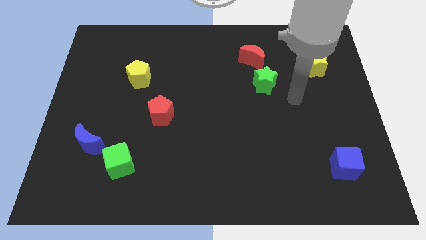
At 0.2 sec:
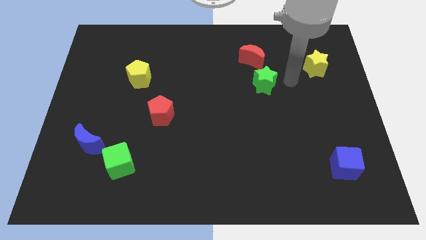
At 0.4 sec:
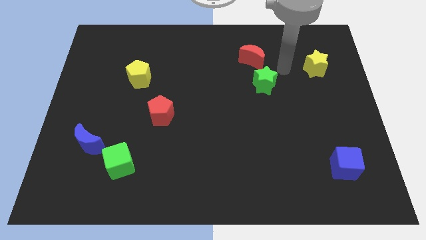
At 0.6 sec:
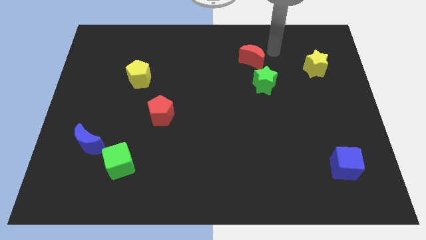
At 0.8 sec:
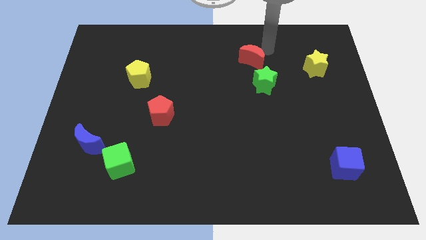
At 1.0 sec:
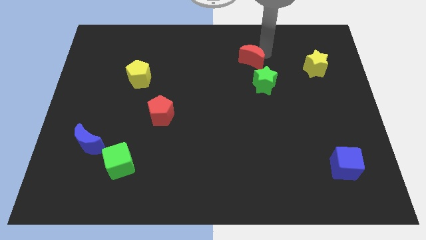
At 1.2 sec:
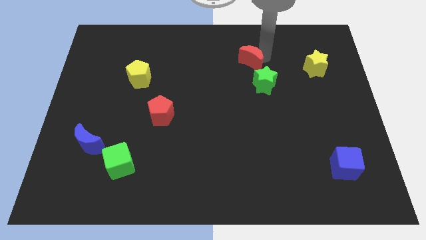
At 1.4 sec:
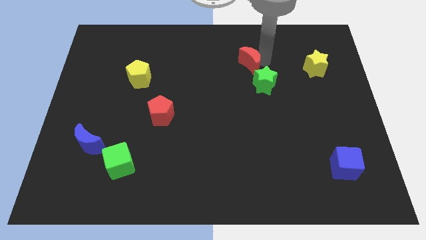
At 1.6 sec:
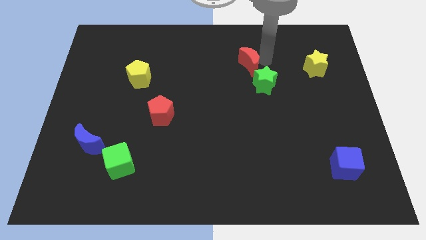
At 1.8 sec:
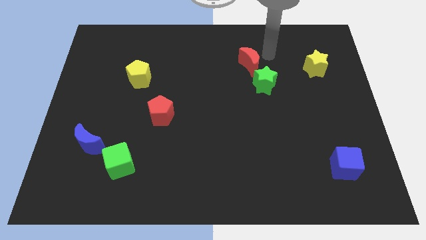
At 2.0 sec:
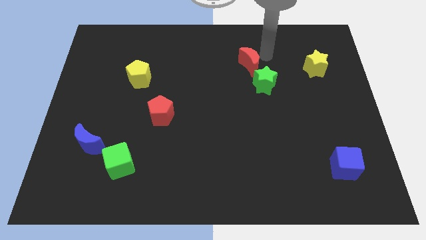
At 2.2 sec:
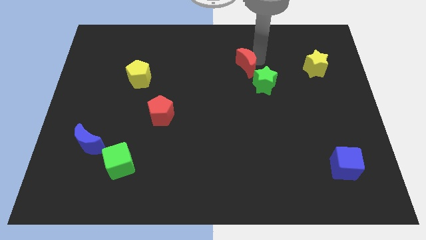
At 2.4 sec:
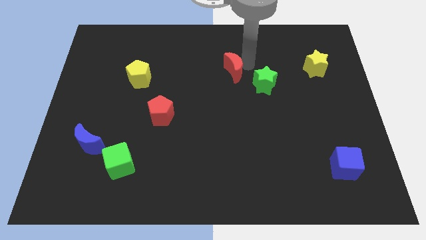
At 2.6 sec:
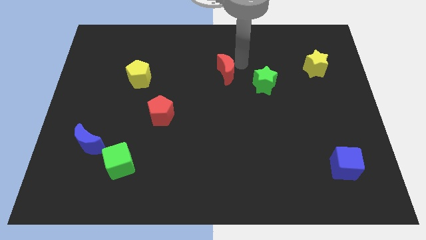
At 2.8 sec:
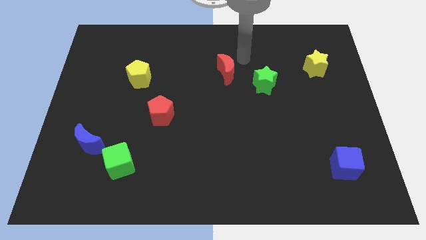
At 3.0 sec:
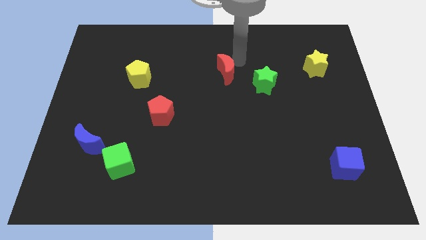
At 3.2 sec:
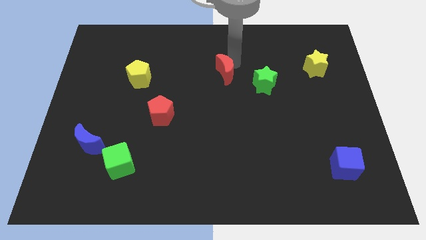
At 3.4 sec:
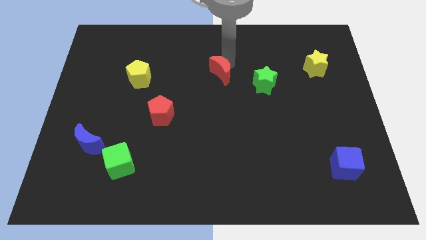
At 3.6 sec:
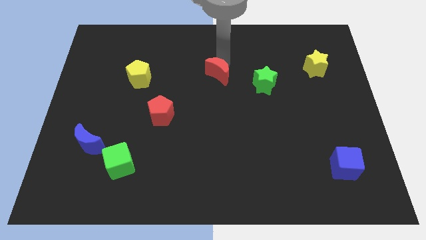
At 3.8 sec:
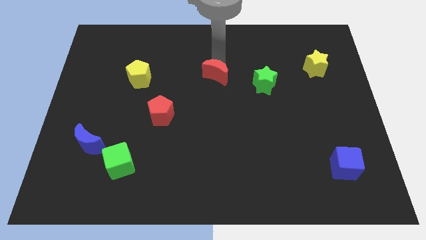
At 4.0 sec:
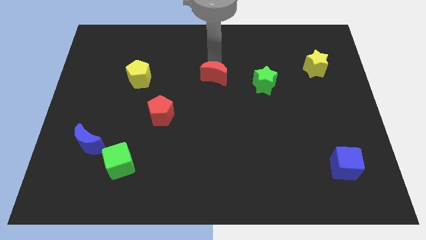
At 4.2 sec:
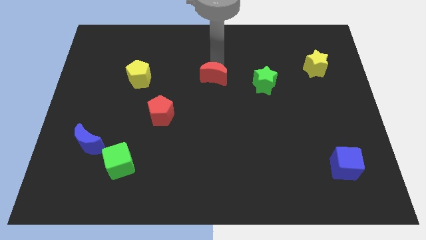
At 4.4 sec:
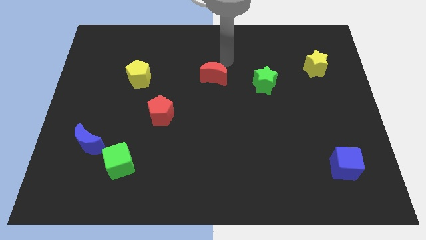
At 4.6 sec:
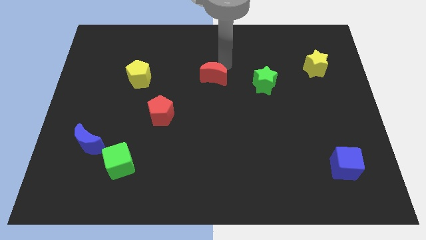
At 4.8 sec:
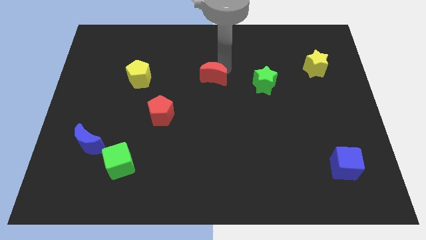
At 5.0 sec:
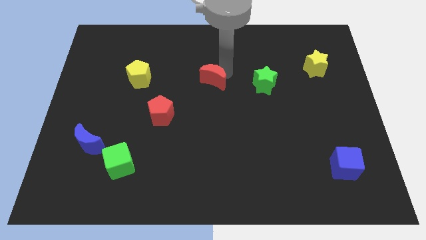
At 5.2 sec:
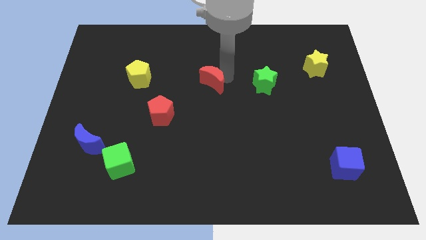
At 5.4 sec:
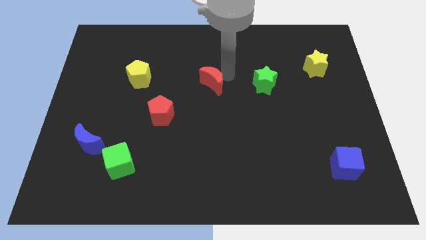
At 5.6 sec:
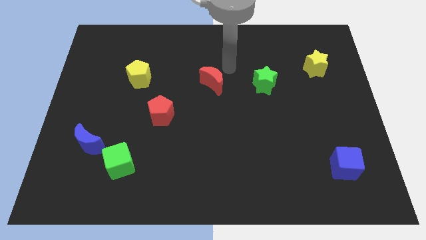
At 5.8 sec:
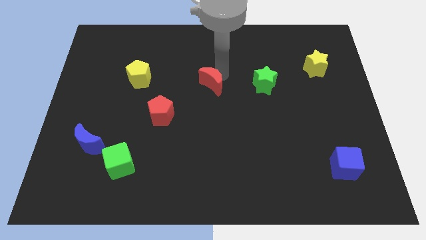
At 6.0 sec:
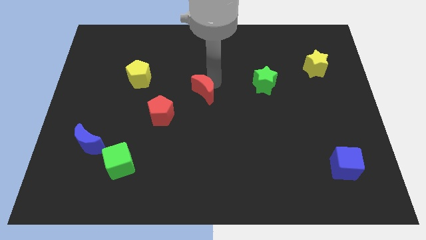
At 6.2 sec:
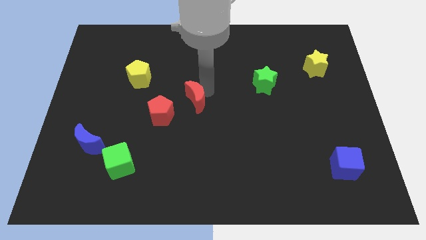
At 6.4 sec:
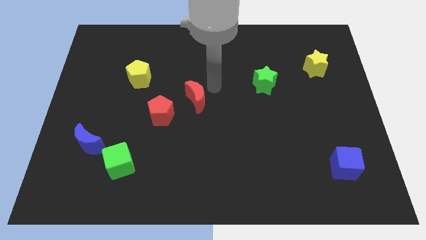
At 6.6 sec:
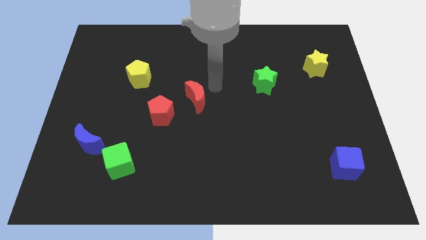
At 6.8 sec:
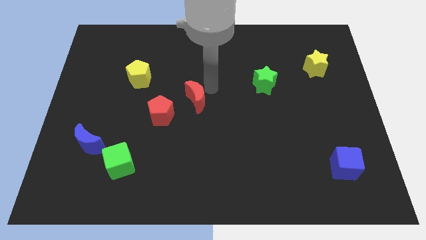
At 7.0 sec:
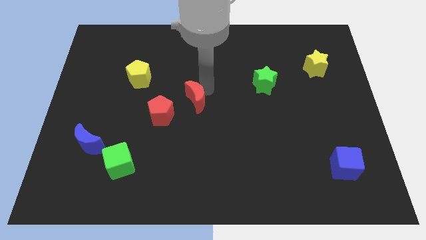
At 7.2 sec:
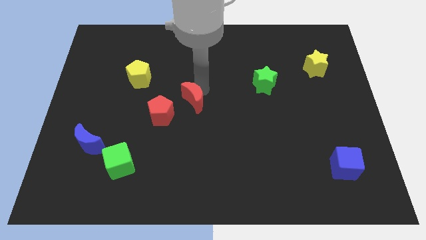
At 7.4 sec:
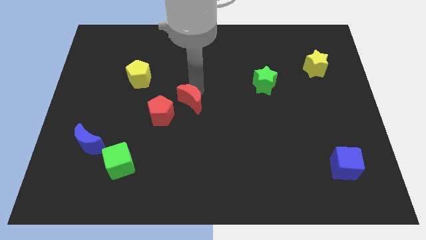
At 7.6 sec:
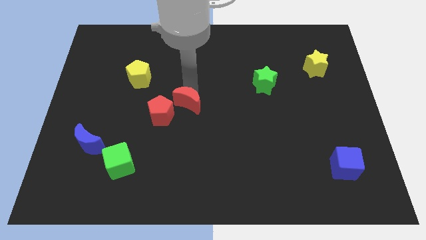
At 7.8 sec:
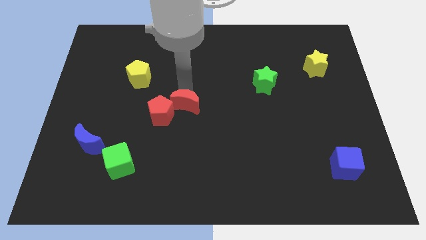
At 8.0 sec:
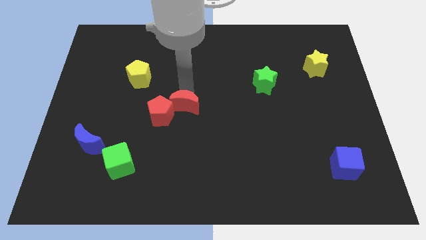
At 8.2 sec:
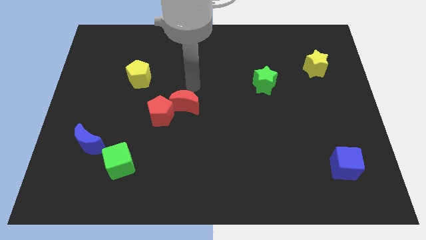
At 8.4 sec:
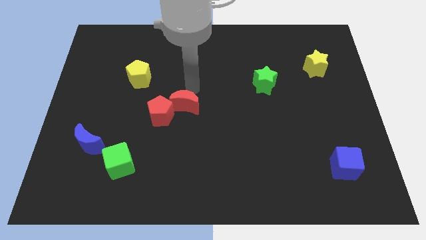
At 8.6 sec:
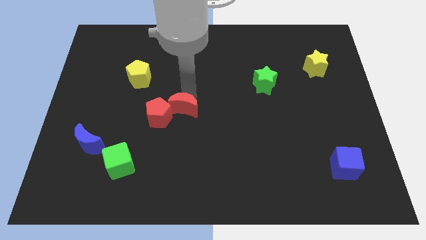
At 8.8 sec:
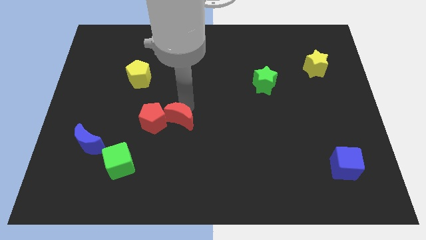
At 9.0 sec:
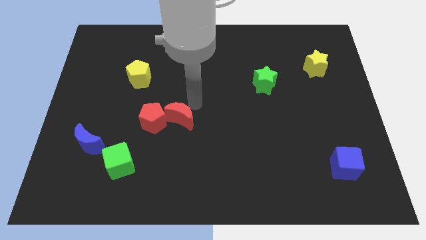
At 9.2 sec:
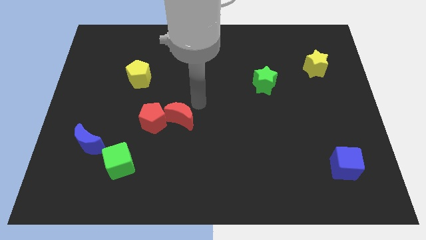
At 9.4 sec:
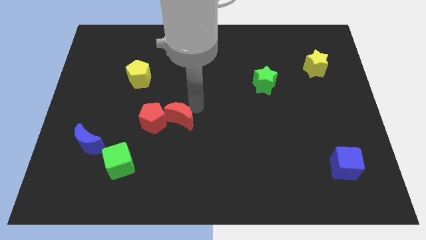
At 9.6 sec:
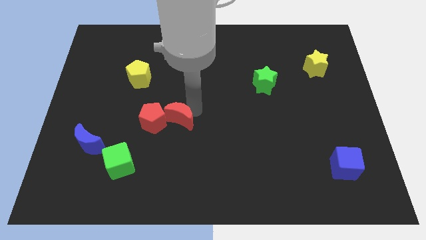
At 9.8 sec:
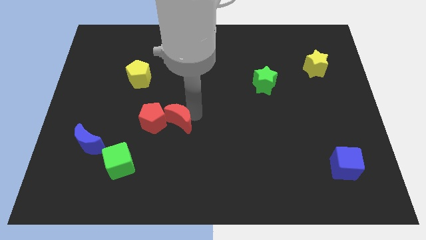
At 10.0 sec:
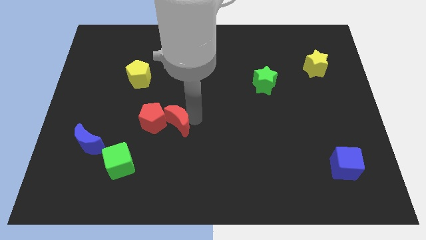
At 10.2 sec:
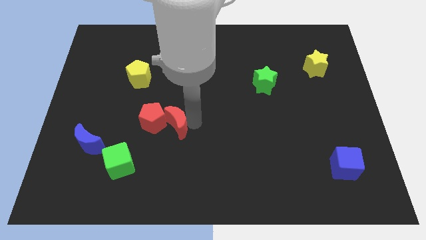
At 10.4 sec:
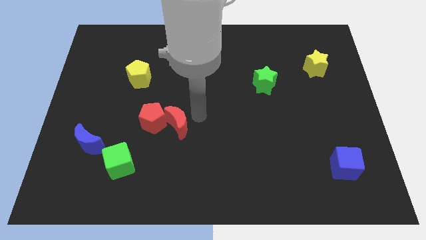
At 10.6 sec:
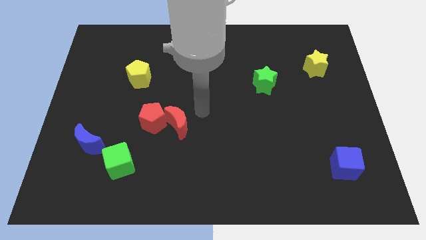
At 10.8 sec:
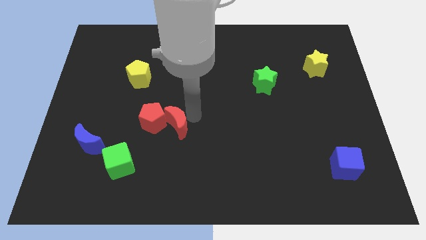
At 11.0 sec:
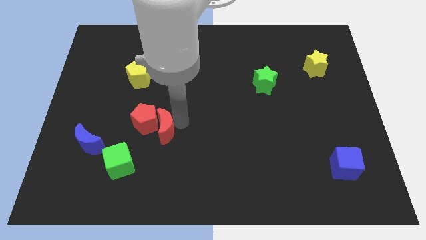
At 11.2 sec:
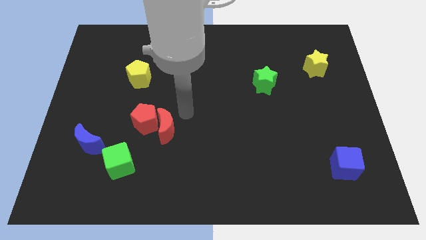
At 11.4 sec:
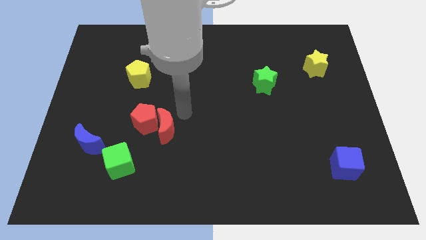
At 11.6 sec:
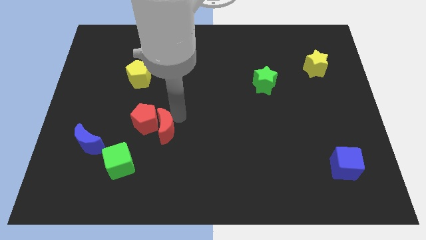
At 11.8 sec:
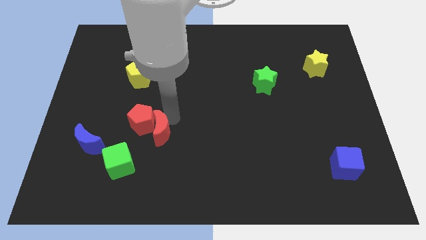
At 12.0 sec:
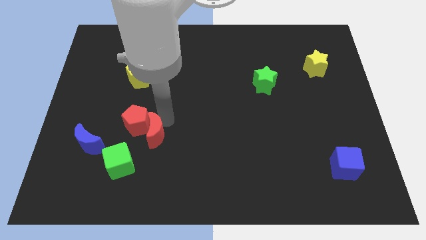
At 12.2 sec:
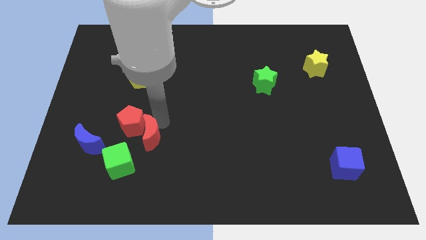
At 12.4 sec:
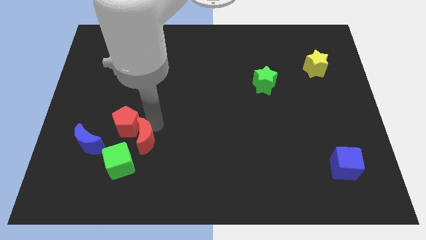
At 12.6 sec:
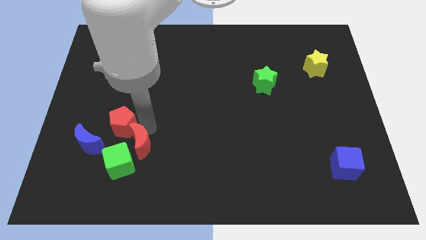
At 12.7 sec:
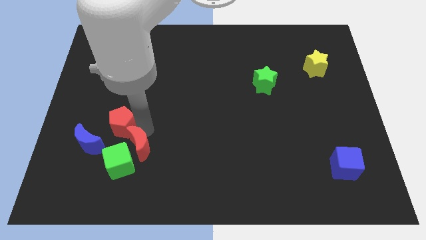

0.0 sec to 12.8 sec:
slide the red moon towards the green cube

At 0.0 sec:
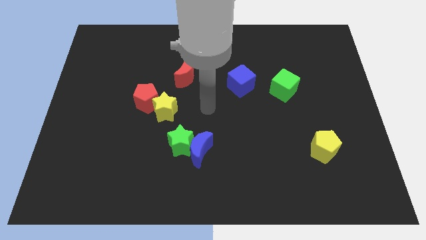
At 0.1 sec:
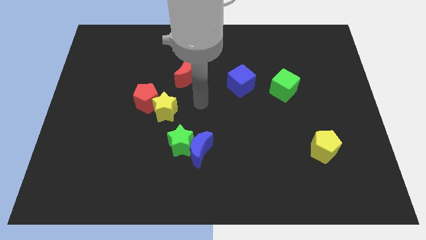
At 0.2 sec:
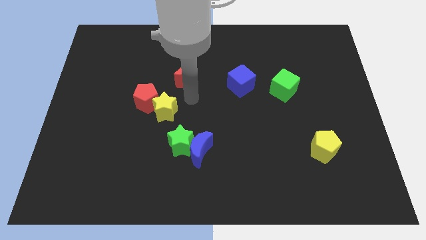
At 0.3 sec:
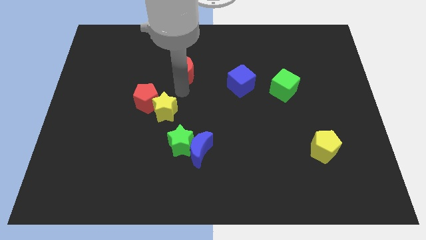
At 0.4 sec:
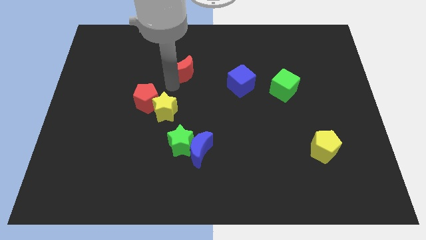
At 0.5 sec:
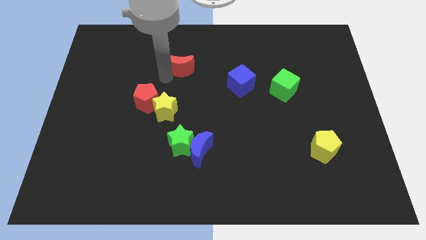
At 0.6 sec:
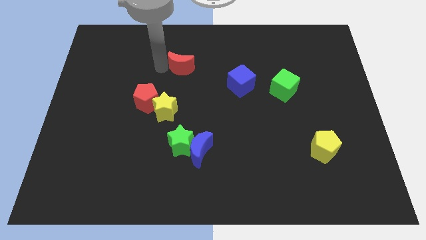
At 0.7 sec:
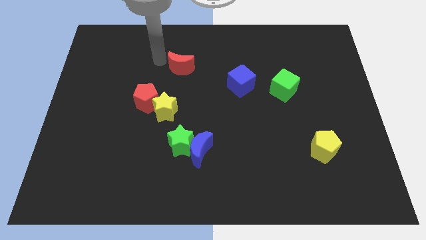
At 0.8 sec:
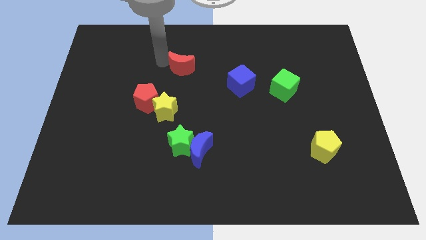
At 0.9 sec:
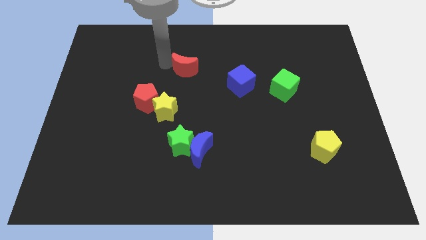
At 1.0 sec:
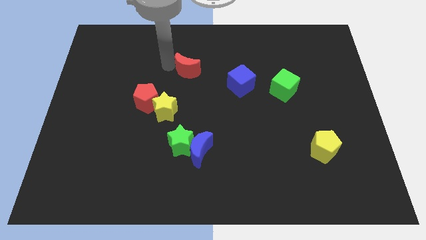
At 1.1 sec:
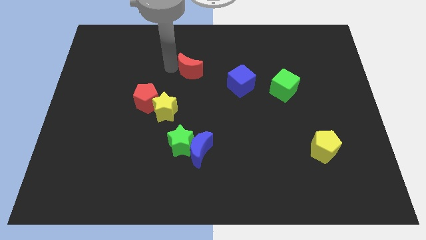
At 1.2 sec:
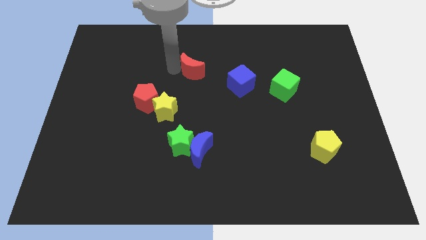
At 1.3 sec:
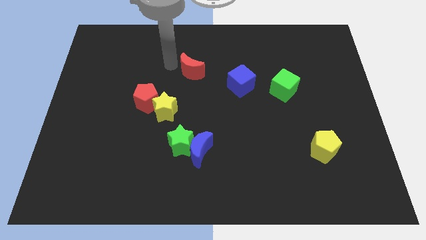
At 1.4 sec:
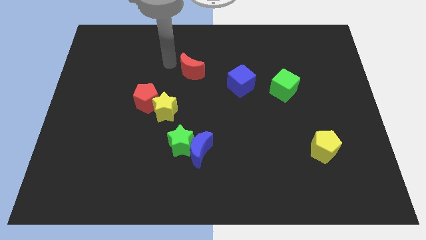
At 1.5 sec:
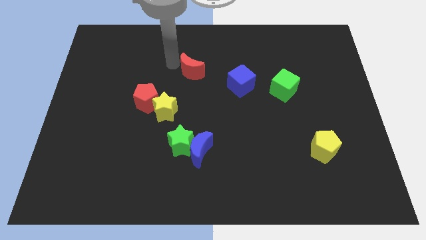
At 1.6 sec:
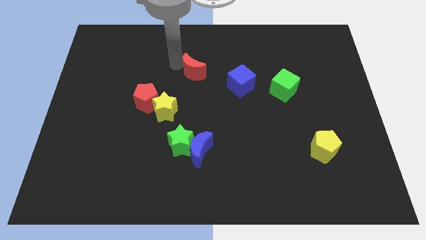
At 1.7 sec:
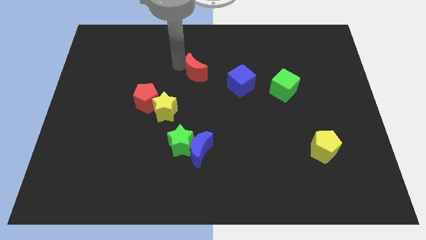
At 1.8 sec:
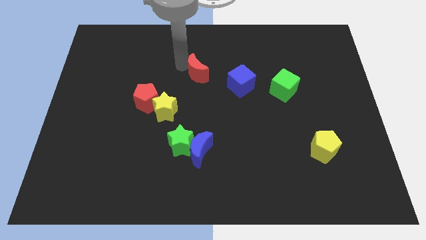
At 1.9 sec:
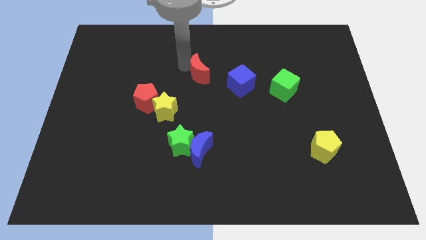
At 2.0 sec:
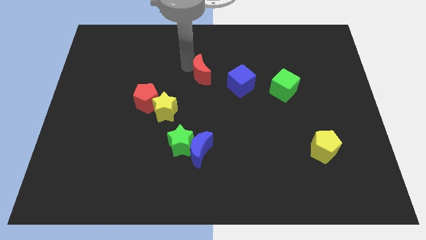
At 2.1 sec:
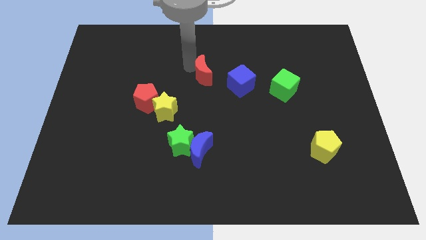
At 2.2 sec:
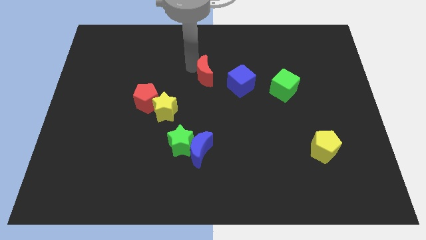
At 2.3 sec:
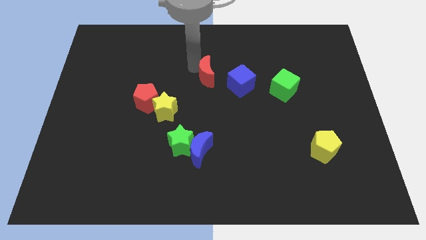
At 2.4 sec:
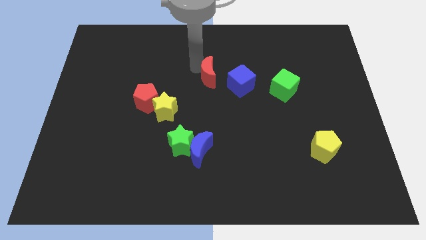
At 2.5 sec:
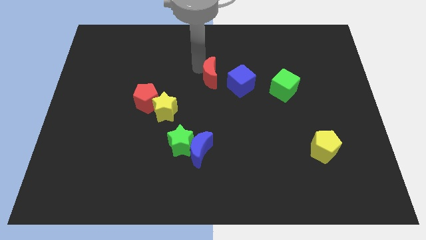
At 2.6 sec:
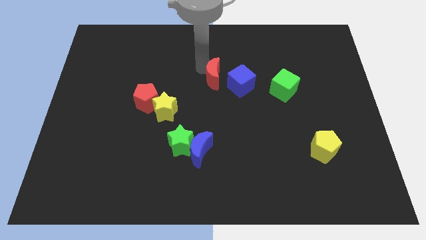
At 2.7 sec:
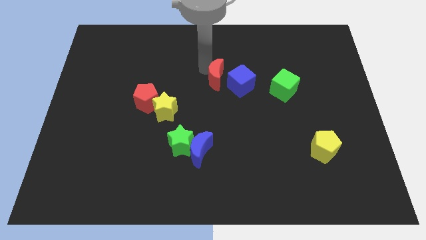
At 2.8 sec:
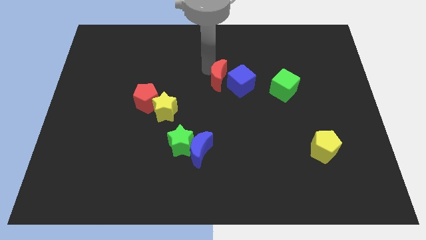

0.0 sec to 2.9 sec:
put the red moon close to the blue cube
